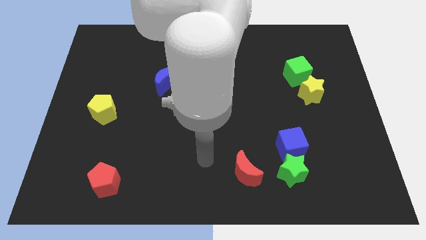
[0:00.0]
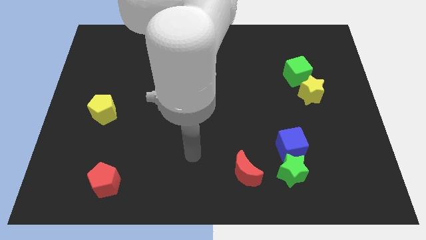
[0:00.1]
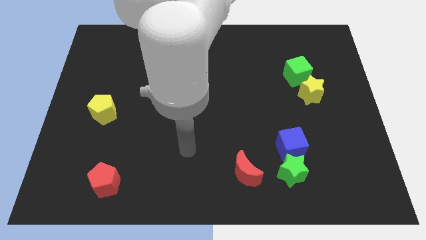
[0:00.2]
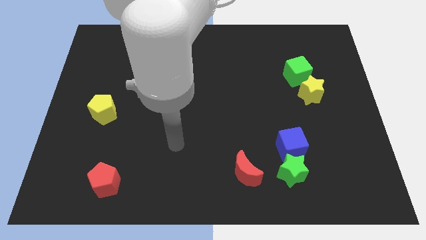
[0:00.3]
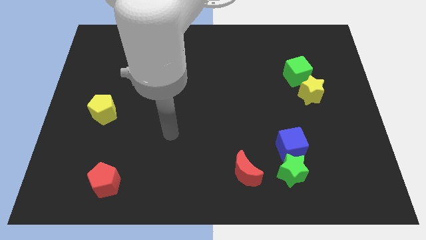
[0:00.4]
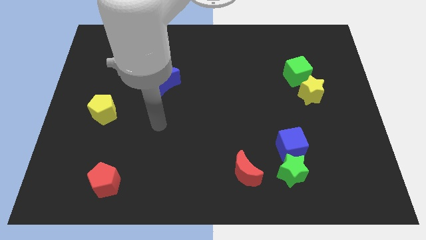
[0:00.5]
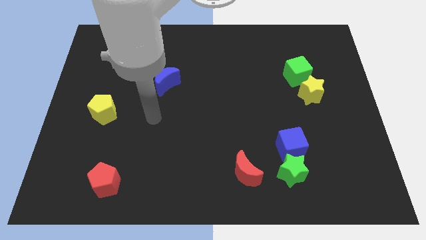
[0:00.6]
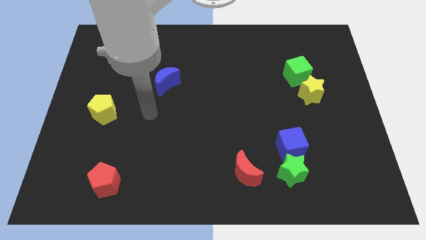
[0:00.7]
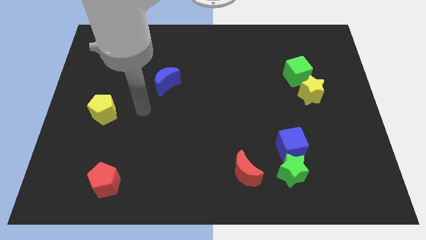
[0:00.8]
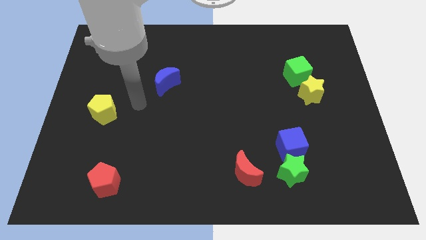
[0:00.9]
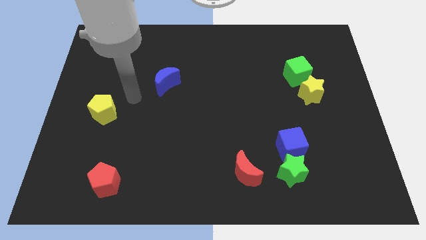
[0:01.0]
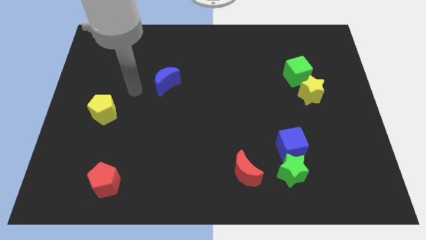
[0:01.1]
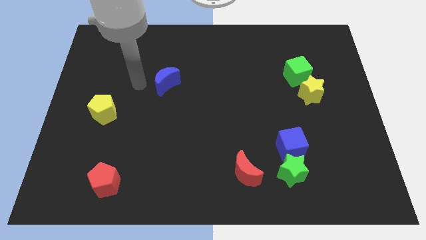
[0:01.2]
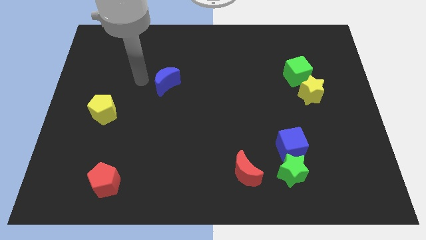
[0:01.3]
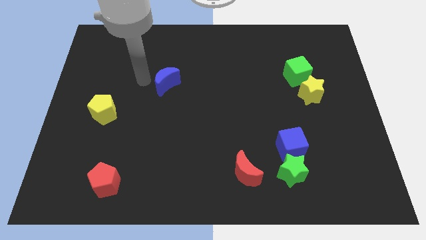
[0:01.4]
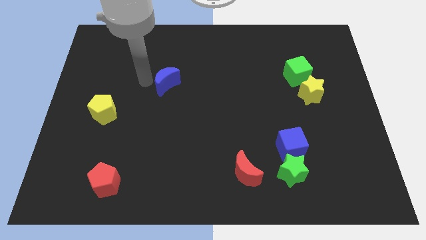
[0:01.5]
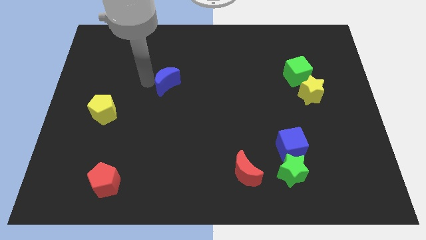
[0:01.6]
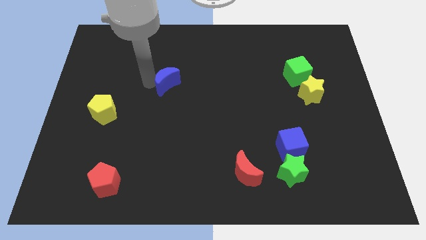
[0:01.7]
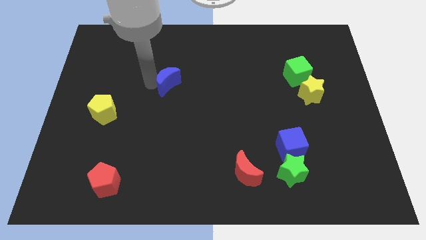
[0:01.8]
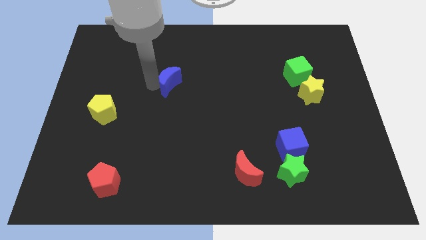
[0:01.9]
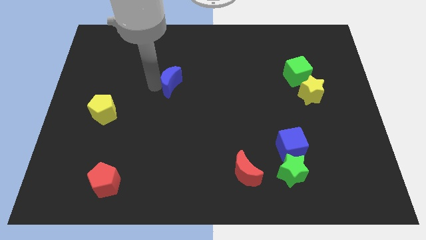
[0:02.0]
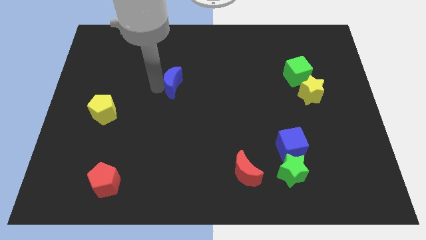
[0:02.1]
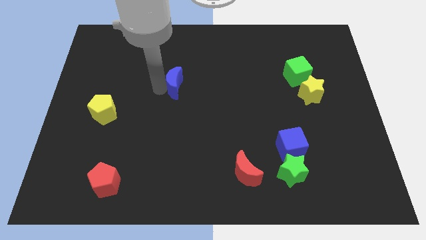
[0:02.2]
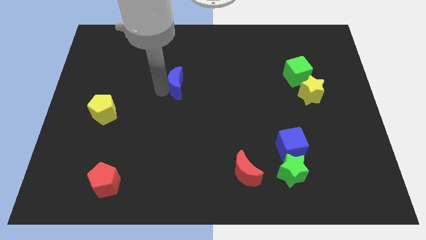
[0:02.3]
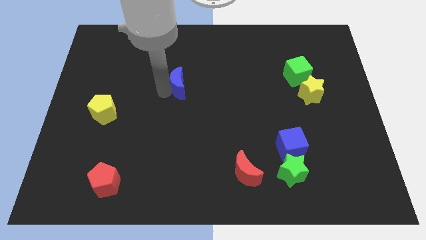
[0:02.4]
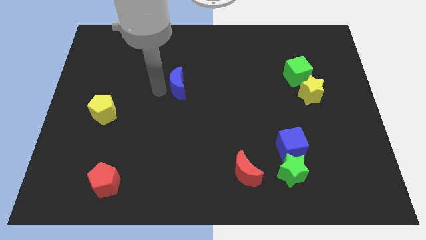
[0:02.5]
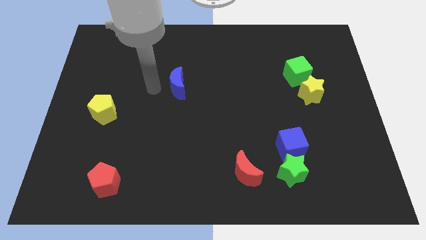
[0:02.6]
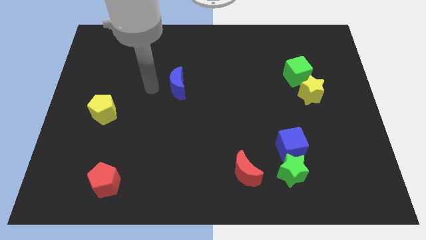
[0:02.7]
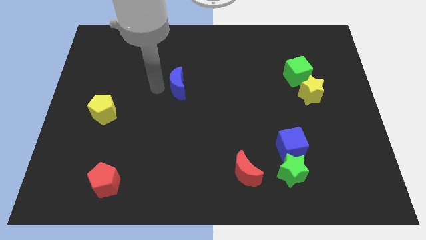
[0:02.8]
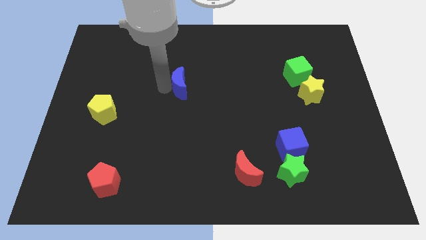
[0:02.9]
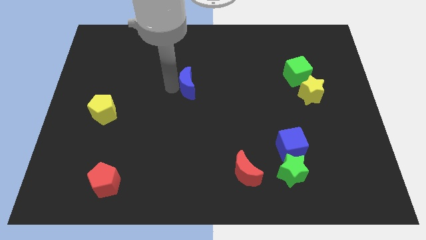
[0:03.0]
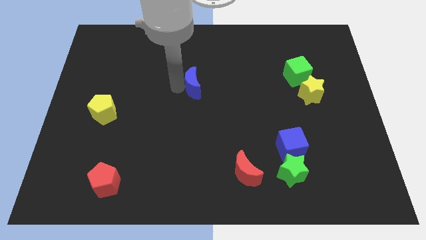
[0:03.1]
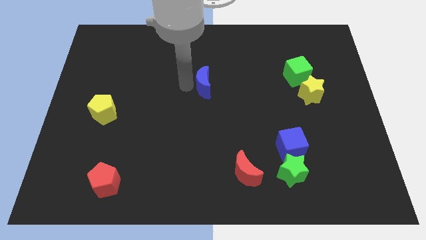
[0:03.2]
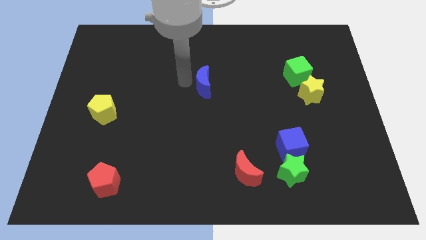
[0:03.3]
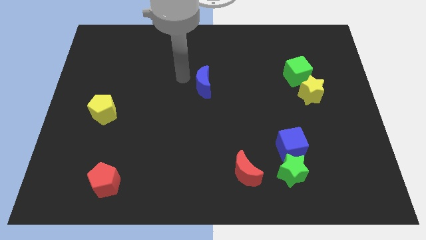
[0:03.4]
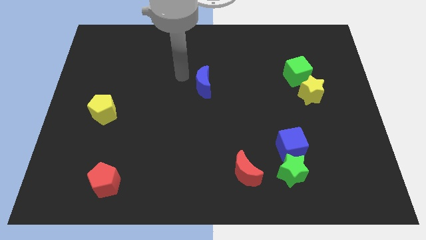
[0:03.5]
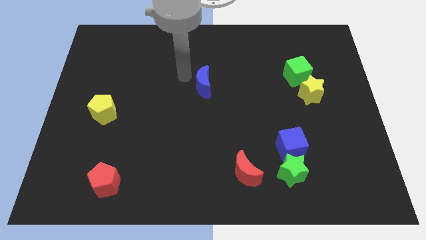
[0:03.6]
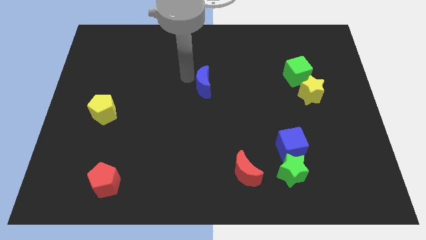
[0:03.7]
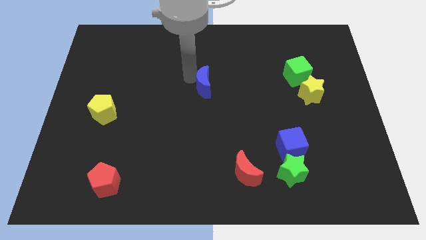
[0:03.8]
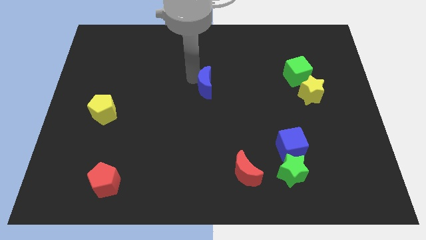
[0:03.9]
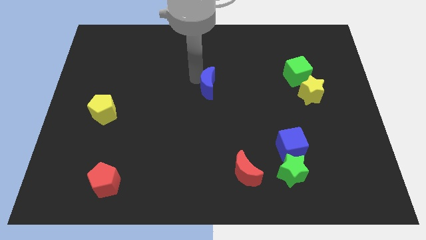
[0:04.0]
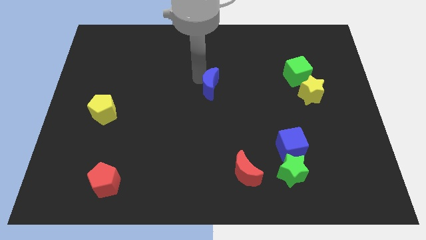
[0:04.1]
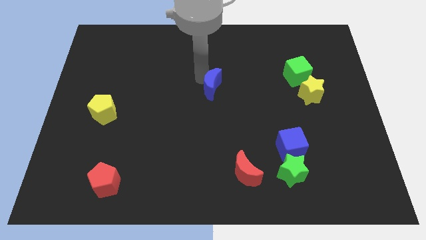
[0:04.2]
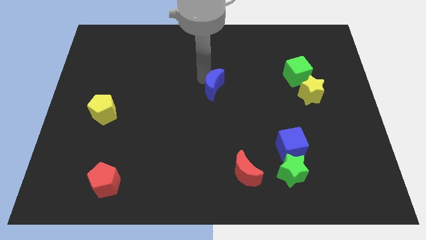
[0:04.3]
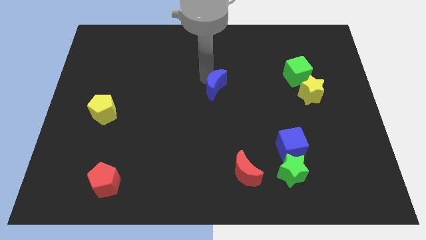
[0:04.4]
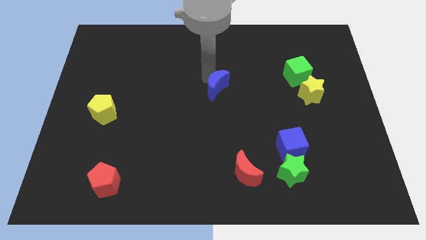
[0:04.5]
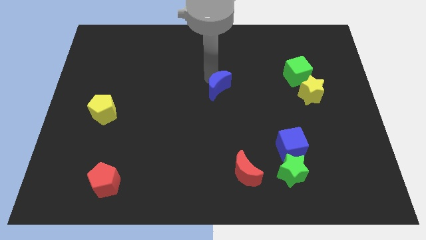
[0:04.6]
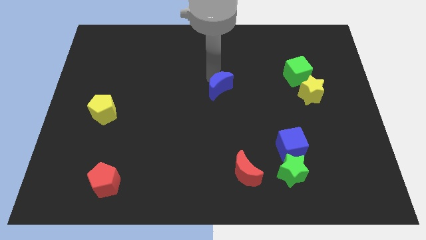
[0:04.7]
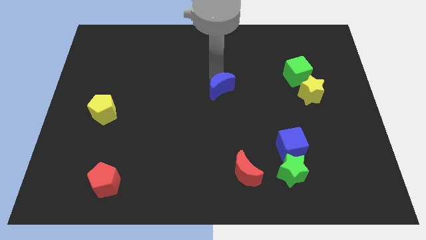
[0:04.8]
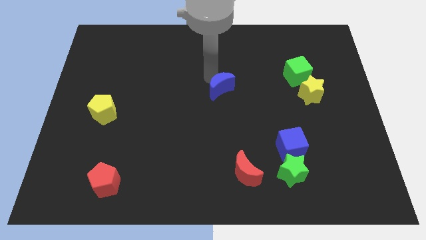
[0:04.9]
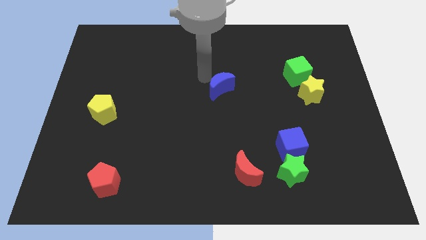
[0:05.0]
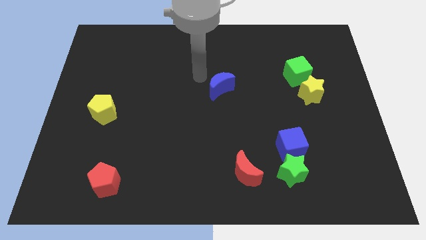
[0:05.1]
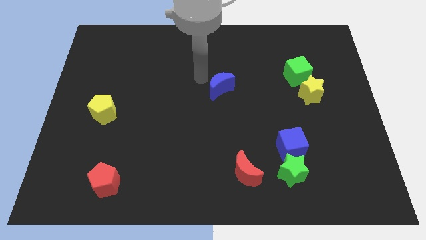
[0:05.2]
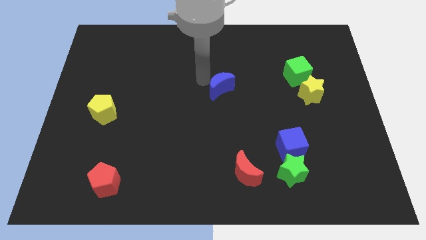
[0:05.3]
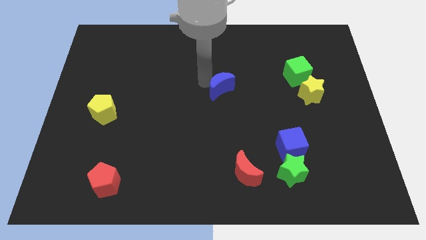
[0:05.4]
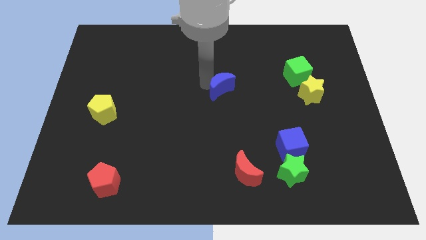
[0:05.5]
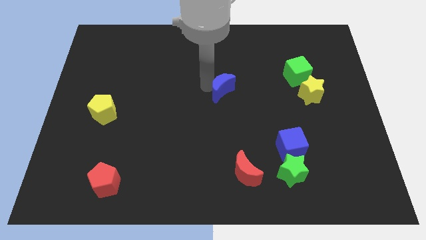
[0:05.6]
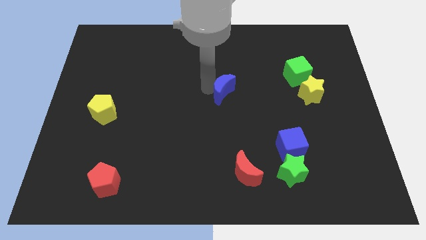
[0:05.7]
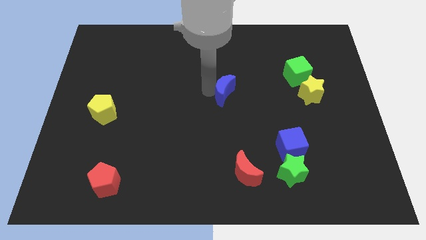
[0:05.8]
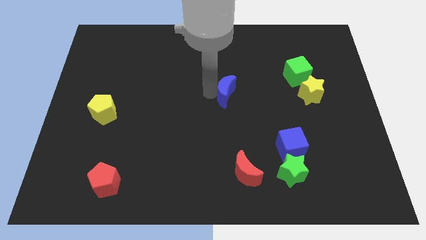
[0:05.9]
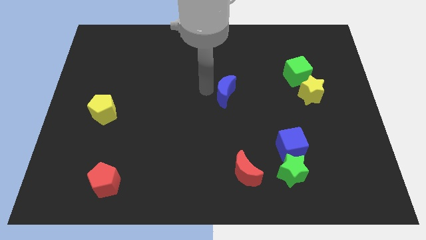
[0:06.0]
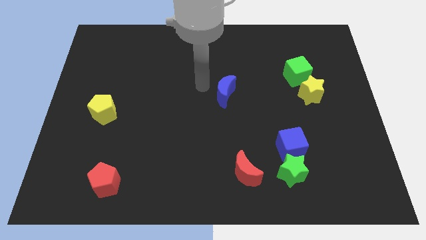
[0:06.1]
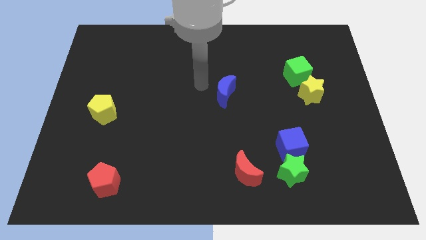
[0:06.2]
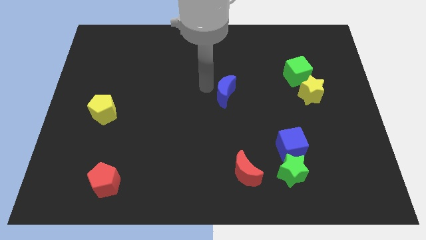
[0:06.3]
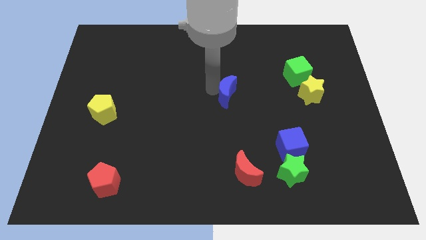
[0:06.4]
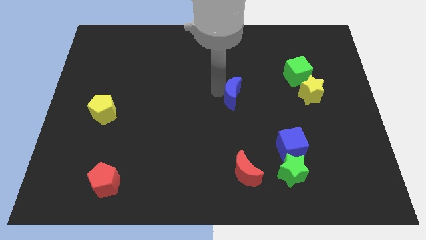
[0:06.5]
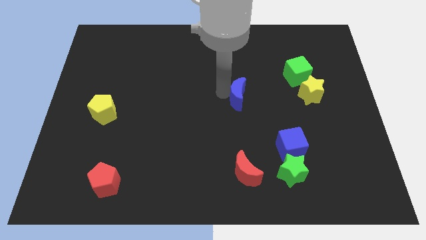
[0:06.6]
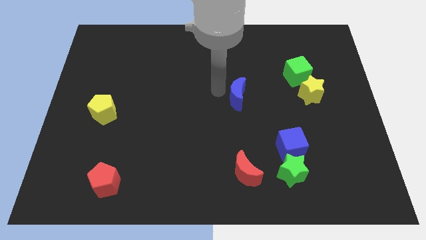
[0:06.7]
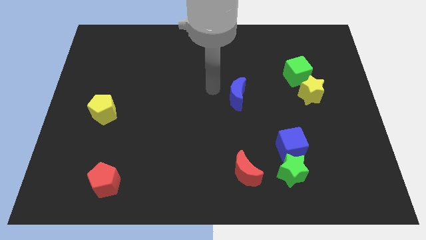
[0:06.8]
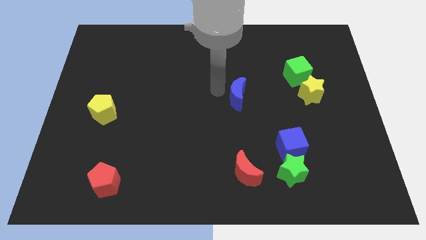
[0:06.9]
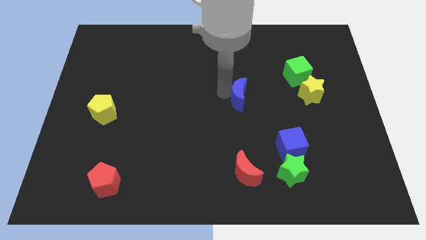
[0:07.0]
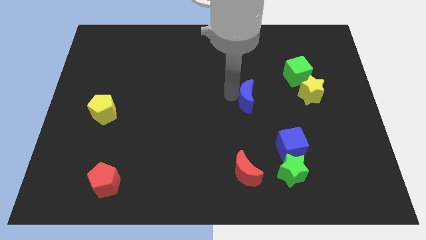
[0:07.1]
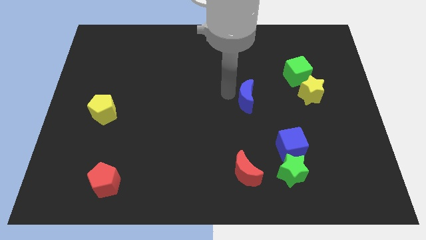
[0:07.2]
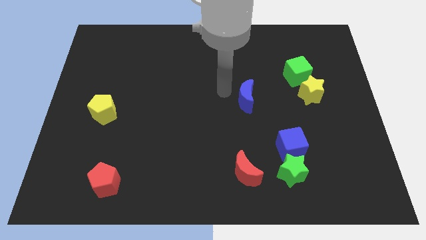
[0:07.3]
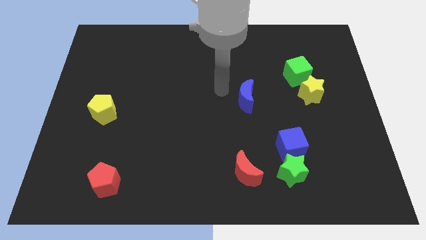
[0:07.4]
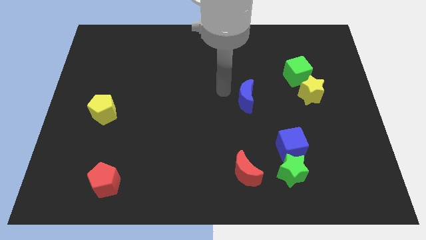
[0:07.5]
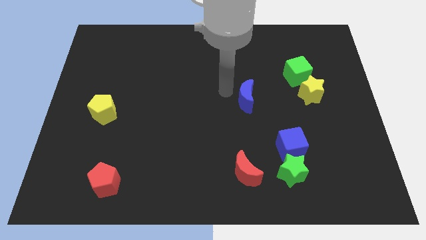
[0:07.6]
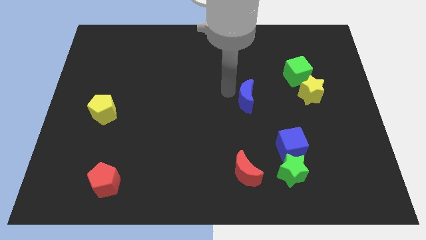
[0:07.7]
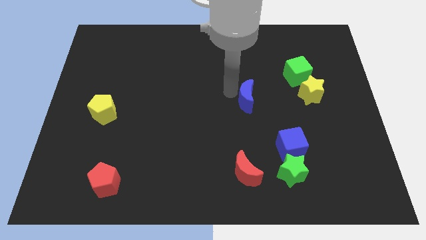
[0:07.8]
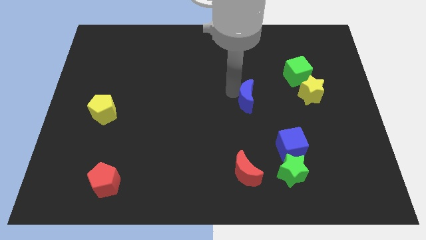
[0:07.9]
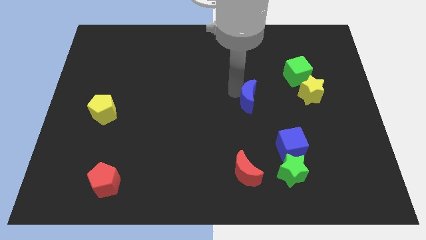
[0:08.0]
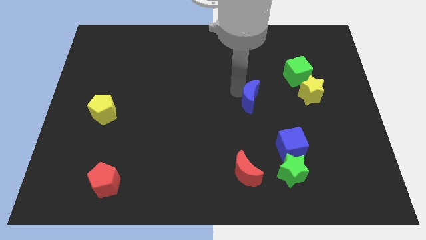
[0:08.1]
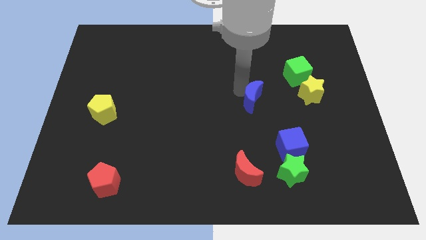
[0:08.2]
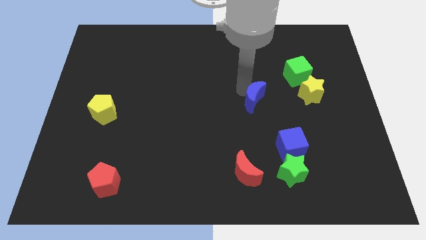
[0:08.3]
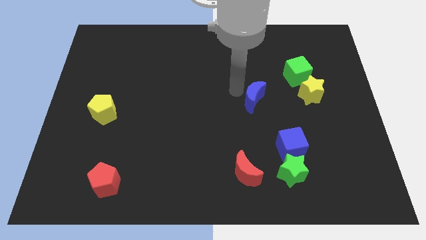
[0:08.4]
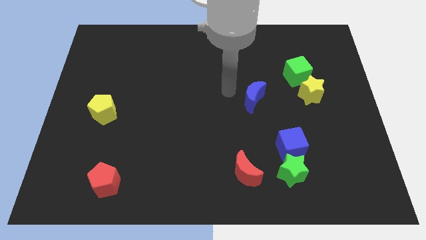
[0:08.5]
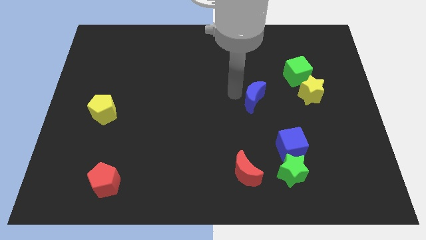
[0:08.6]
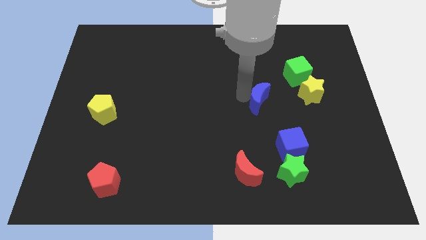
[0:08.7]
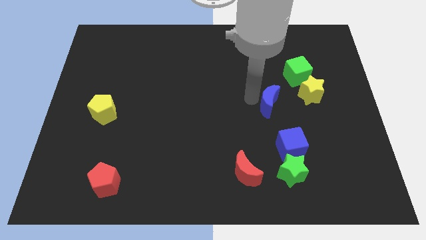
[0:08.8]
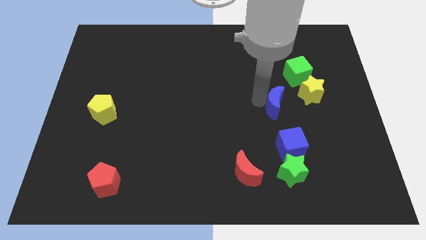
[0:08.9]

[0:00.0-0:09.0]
push the blue moon to the bottom left side of the yellow star
